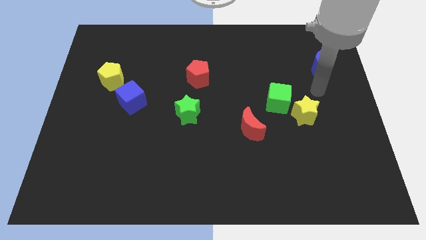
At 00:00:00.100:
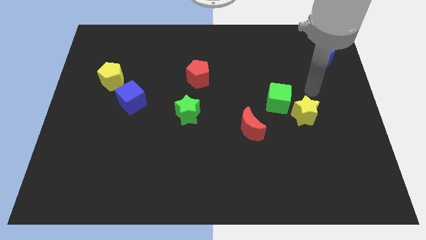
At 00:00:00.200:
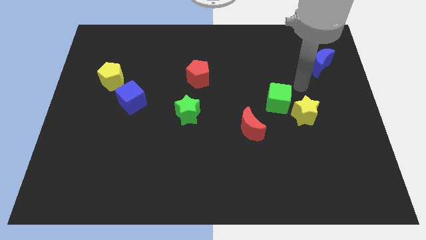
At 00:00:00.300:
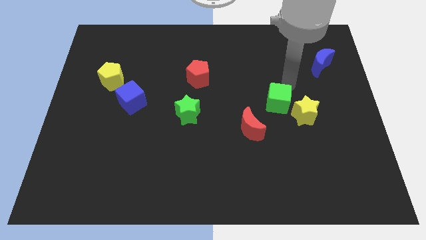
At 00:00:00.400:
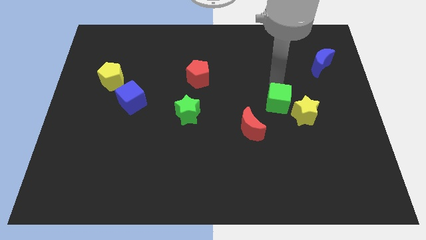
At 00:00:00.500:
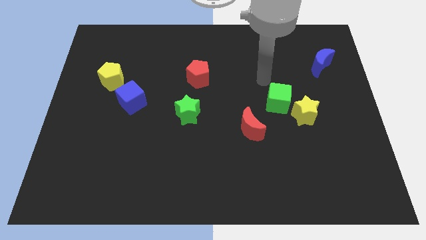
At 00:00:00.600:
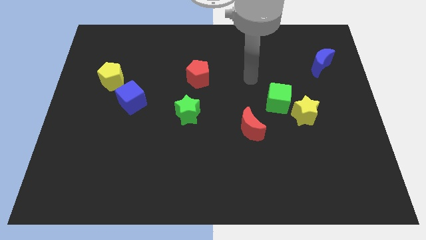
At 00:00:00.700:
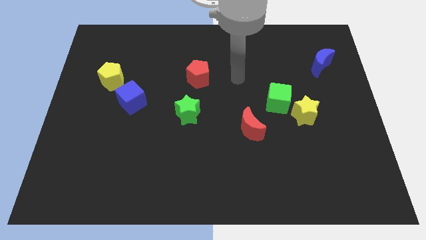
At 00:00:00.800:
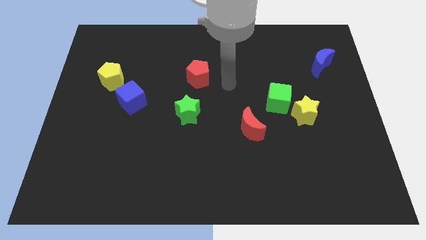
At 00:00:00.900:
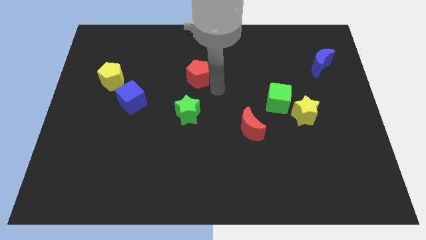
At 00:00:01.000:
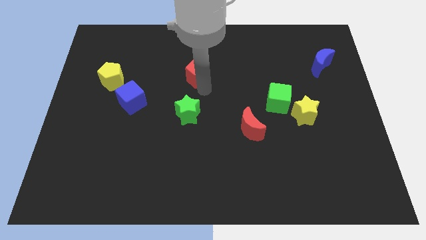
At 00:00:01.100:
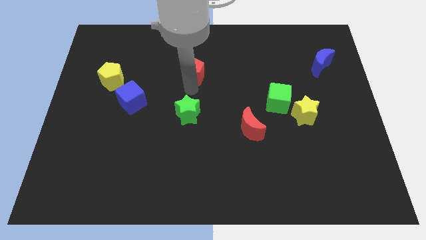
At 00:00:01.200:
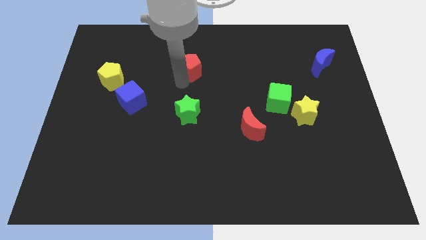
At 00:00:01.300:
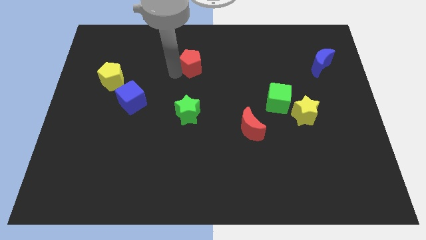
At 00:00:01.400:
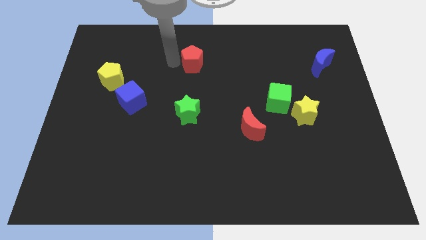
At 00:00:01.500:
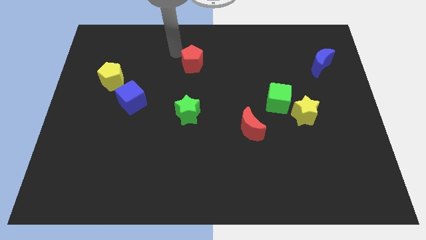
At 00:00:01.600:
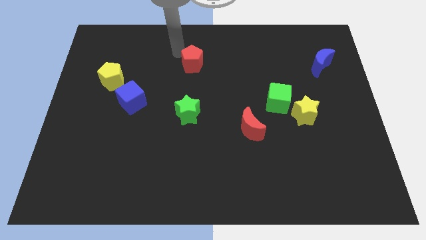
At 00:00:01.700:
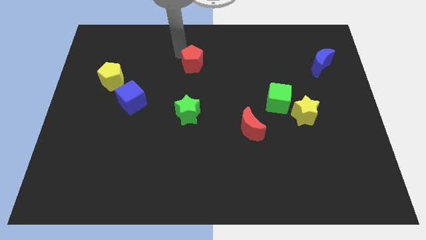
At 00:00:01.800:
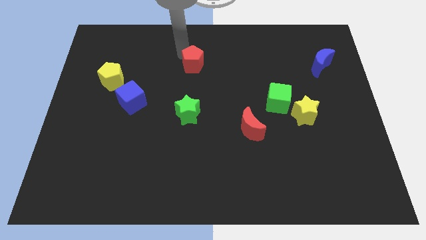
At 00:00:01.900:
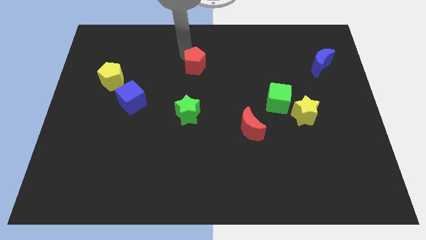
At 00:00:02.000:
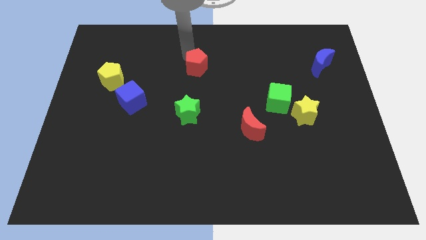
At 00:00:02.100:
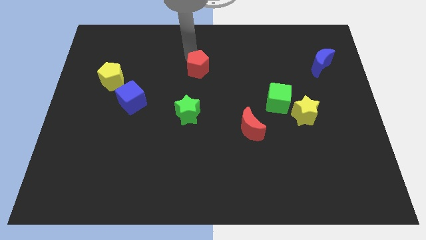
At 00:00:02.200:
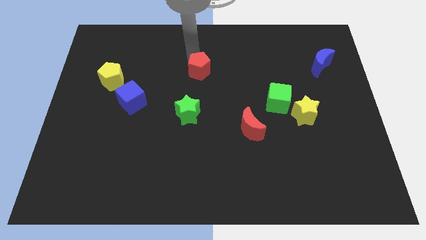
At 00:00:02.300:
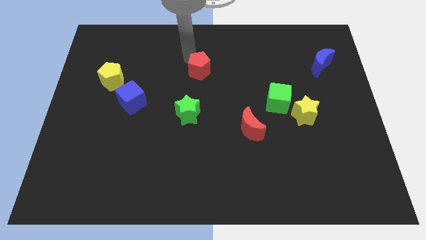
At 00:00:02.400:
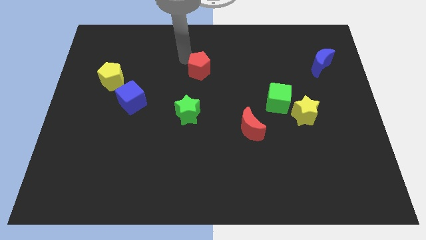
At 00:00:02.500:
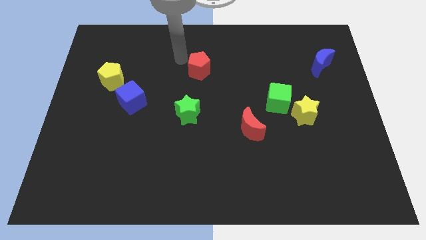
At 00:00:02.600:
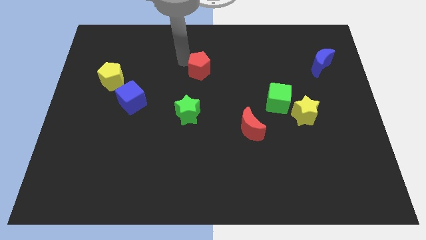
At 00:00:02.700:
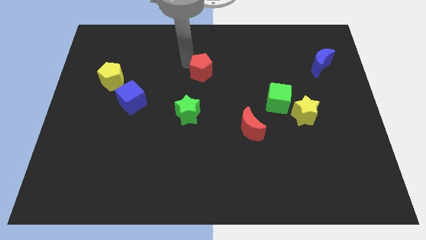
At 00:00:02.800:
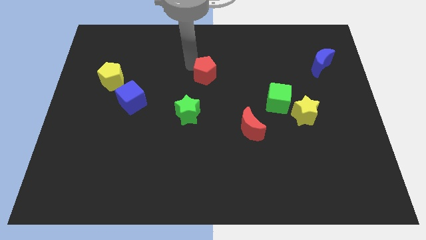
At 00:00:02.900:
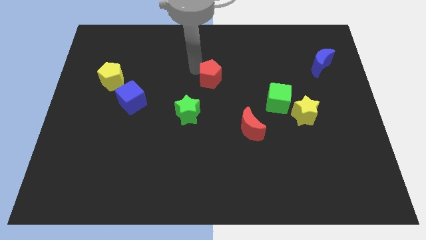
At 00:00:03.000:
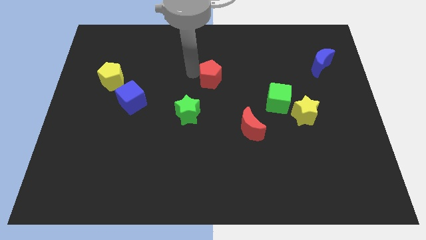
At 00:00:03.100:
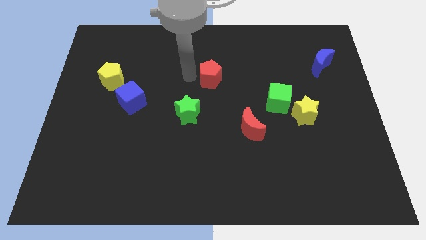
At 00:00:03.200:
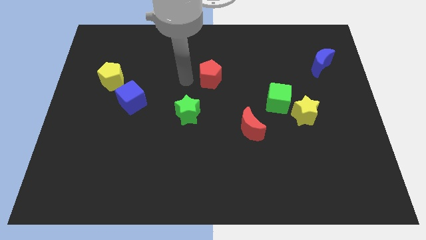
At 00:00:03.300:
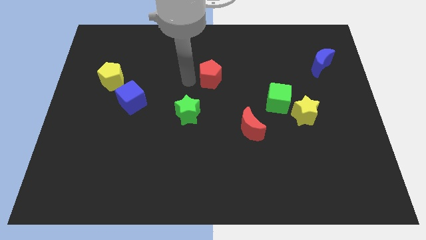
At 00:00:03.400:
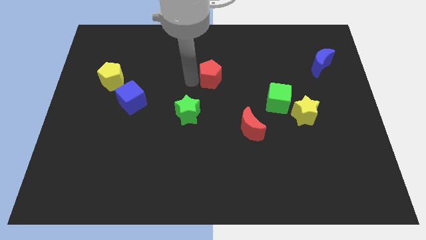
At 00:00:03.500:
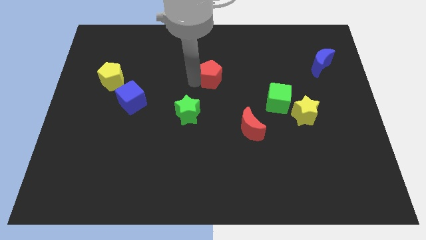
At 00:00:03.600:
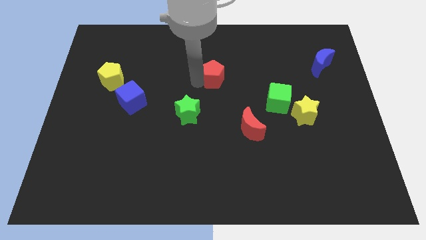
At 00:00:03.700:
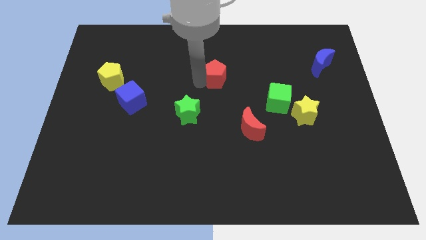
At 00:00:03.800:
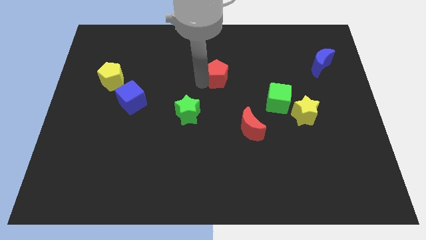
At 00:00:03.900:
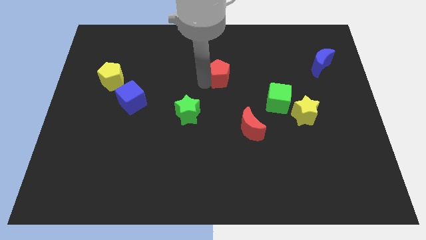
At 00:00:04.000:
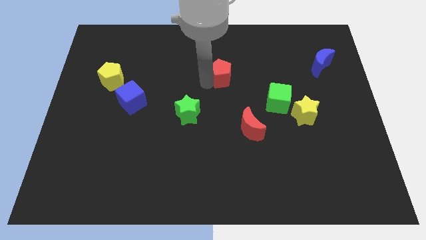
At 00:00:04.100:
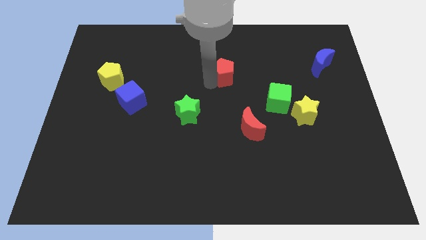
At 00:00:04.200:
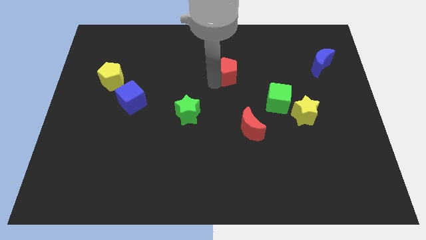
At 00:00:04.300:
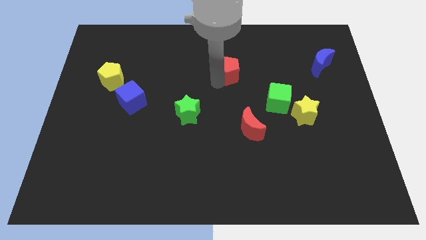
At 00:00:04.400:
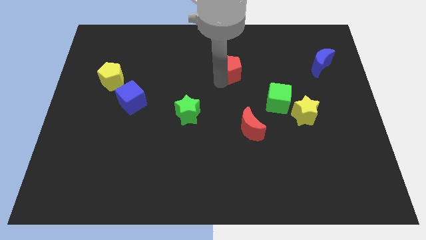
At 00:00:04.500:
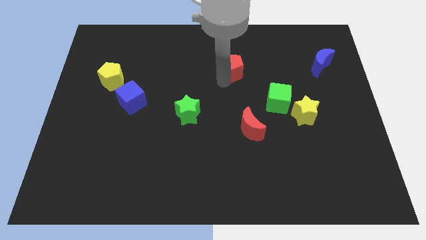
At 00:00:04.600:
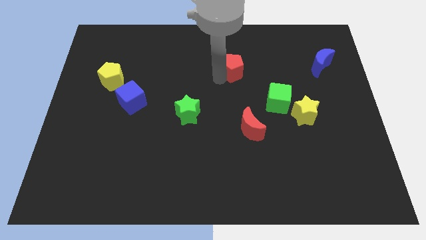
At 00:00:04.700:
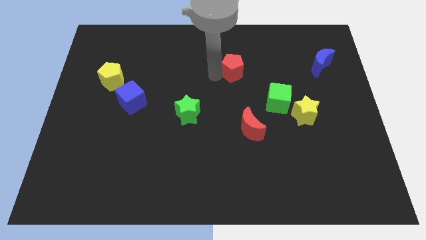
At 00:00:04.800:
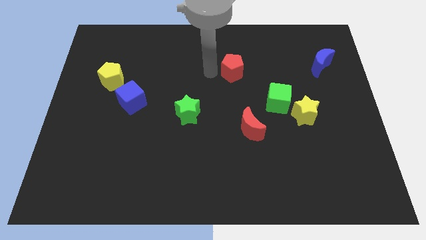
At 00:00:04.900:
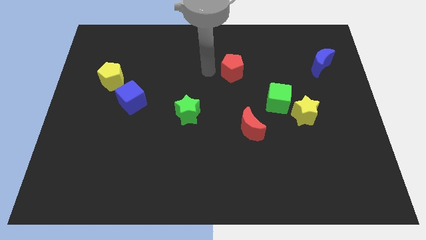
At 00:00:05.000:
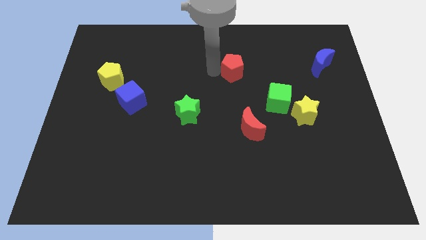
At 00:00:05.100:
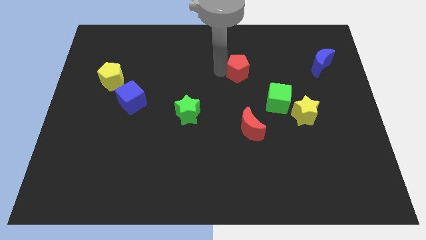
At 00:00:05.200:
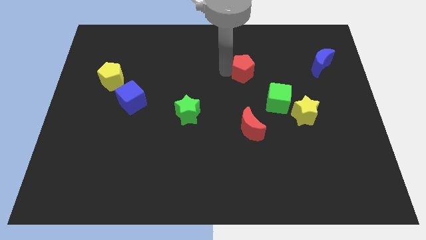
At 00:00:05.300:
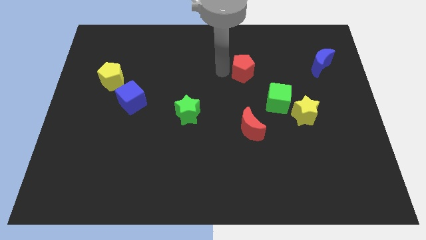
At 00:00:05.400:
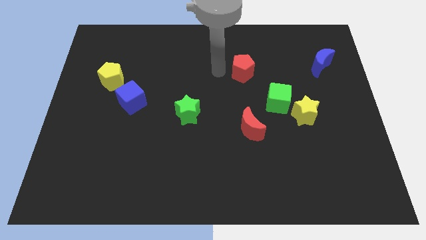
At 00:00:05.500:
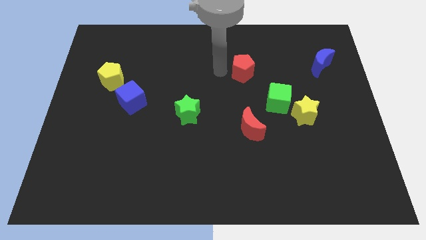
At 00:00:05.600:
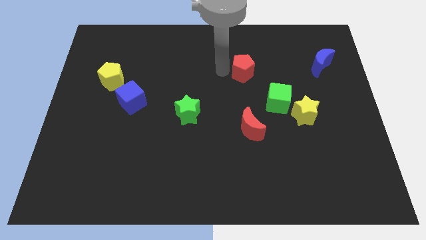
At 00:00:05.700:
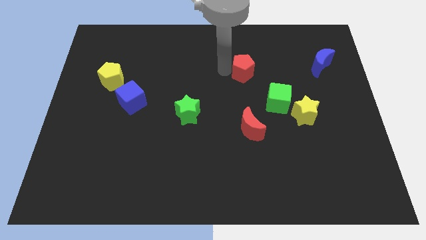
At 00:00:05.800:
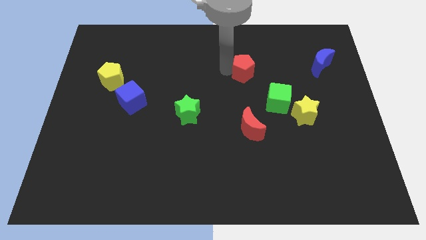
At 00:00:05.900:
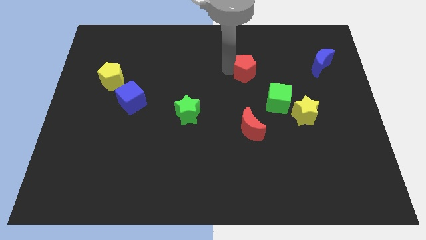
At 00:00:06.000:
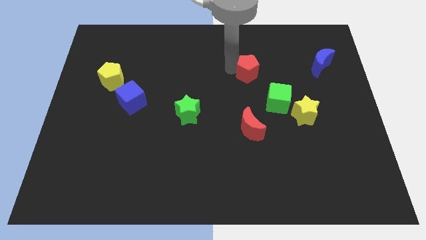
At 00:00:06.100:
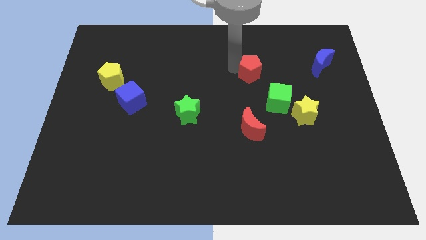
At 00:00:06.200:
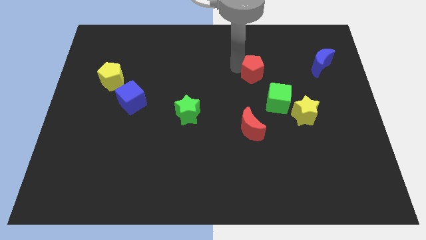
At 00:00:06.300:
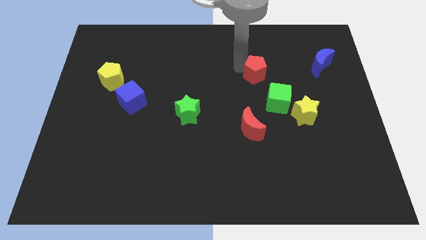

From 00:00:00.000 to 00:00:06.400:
push the red pentagon to the top side of the green cube

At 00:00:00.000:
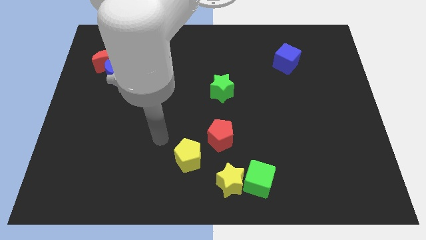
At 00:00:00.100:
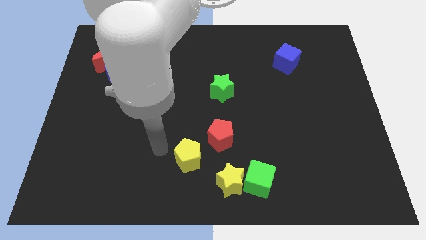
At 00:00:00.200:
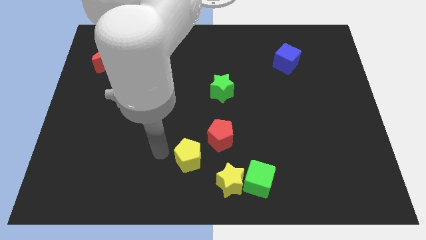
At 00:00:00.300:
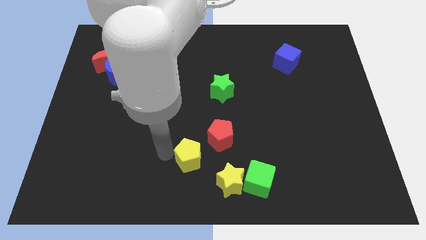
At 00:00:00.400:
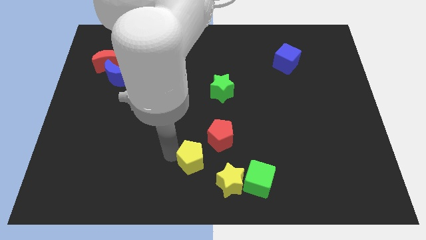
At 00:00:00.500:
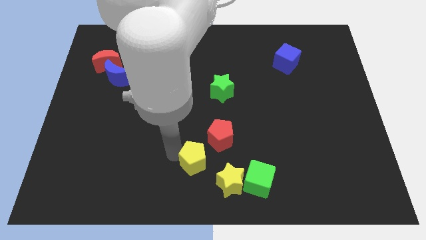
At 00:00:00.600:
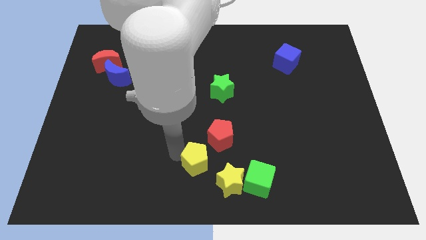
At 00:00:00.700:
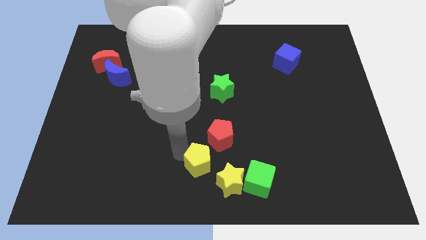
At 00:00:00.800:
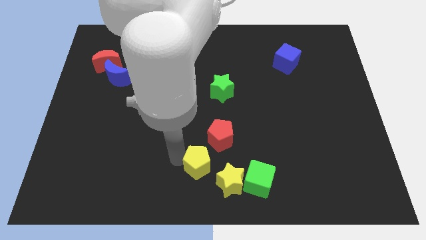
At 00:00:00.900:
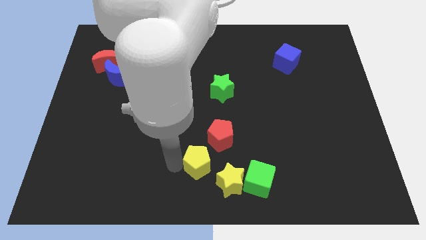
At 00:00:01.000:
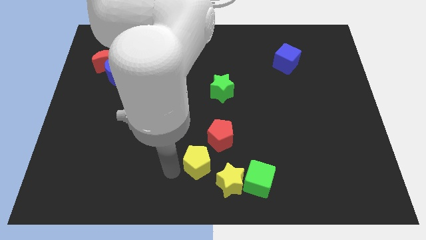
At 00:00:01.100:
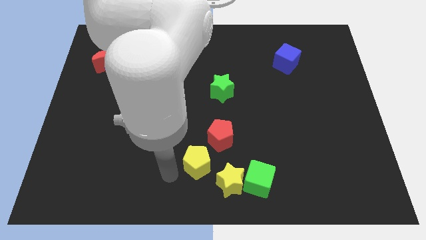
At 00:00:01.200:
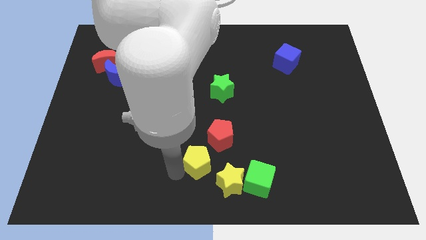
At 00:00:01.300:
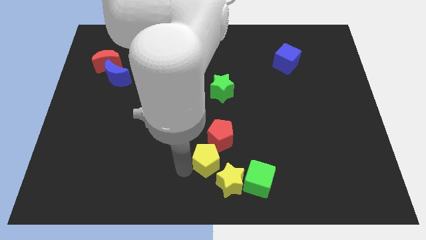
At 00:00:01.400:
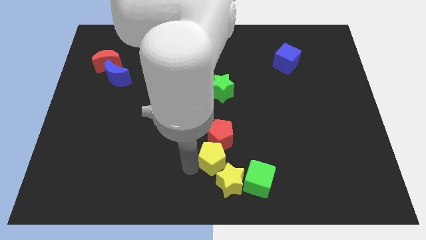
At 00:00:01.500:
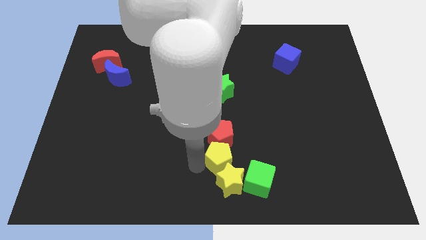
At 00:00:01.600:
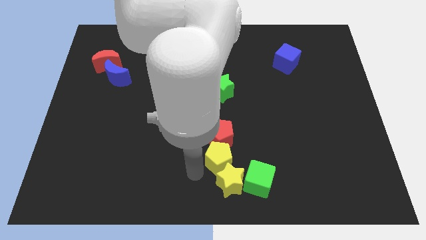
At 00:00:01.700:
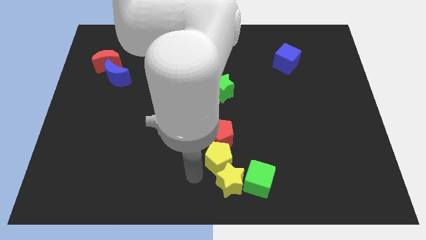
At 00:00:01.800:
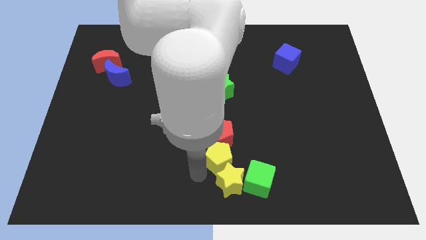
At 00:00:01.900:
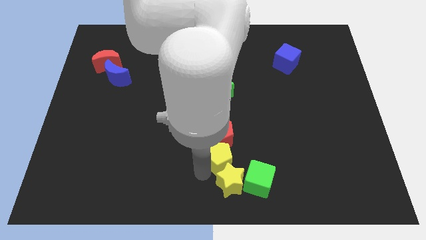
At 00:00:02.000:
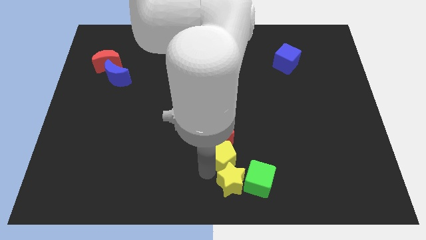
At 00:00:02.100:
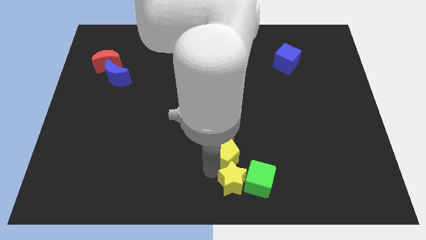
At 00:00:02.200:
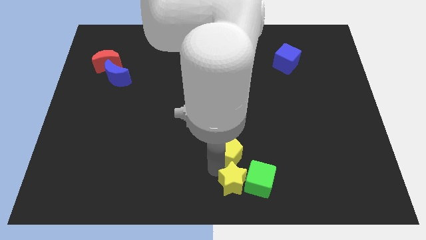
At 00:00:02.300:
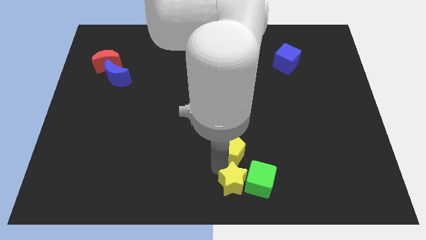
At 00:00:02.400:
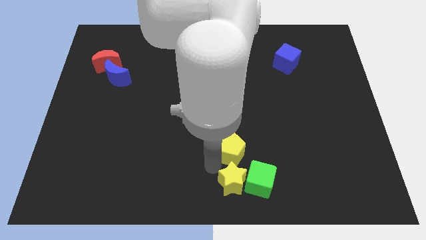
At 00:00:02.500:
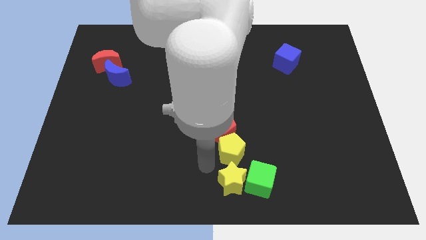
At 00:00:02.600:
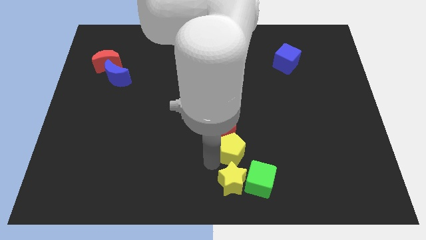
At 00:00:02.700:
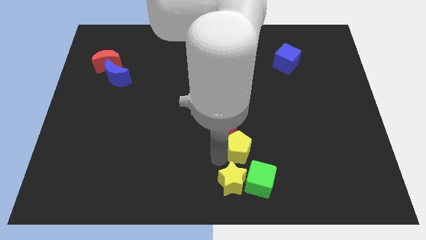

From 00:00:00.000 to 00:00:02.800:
push the yellow pentagon to the top side of the green cube
